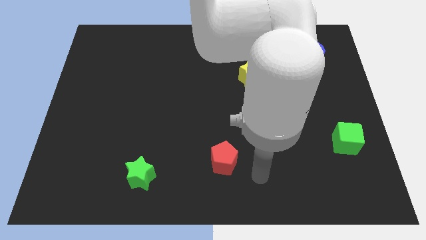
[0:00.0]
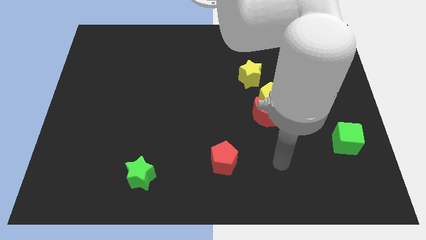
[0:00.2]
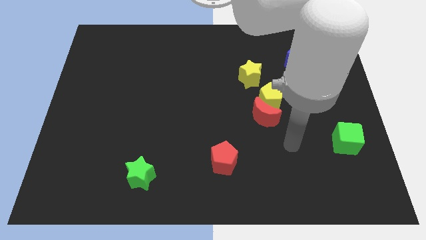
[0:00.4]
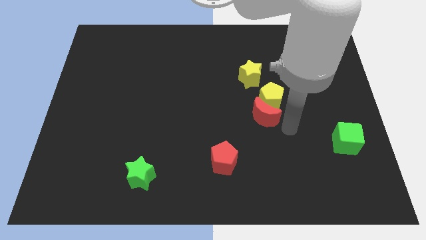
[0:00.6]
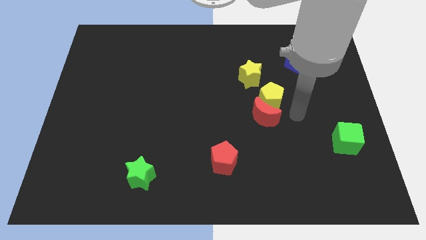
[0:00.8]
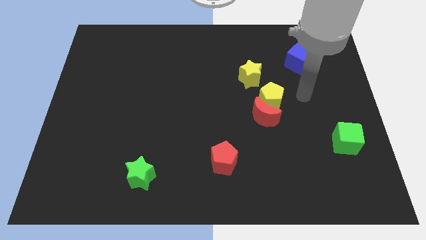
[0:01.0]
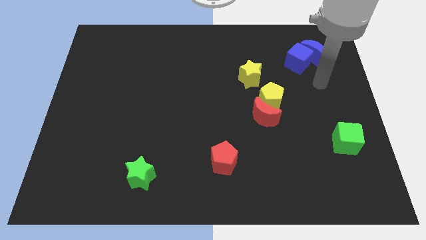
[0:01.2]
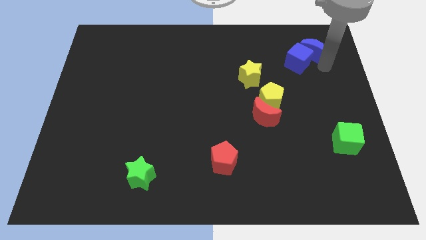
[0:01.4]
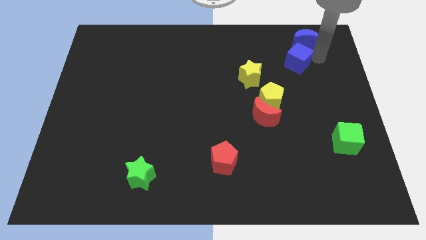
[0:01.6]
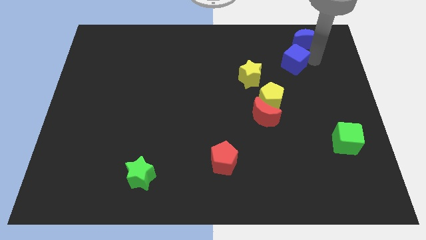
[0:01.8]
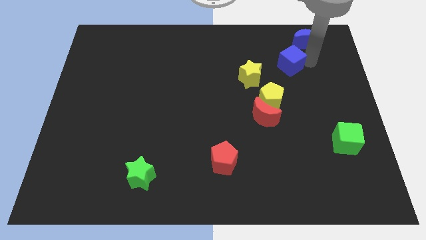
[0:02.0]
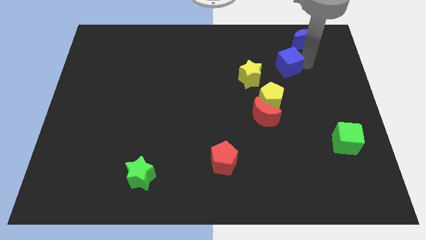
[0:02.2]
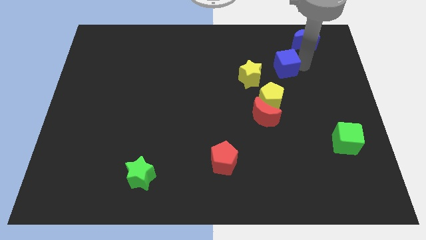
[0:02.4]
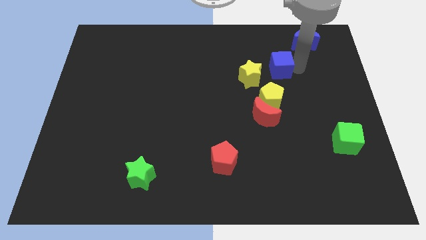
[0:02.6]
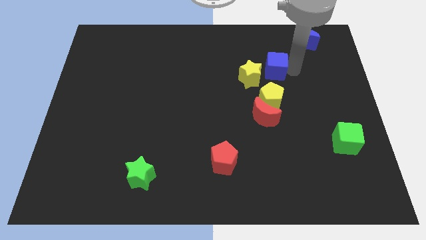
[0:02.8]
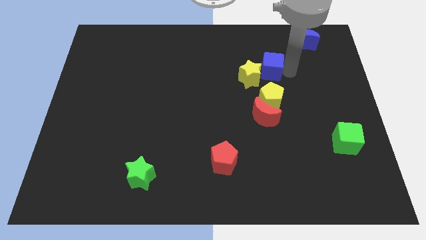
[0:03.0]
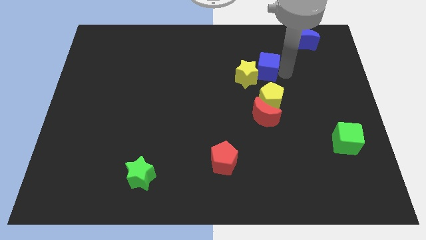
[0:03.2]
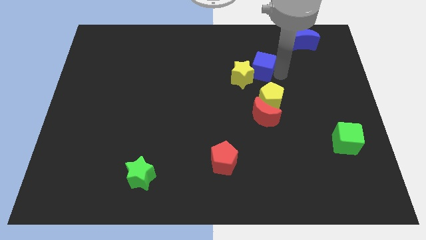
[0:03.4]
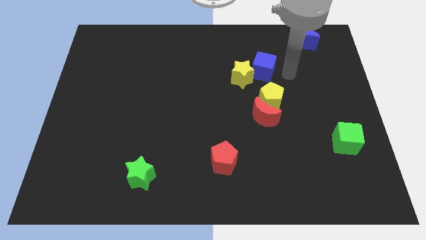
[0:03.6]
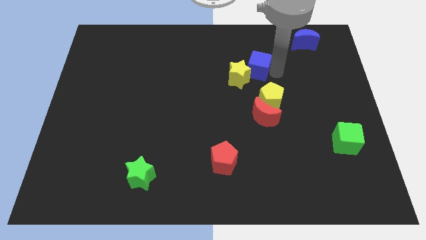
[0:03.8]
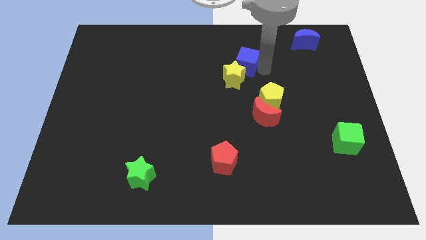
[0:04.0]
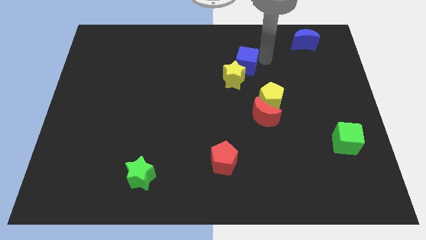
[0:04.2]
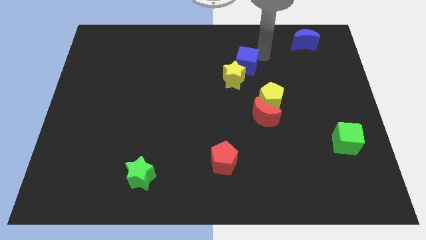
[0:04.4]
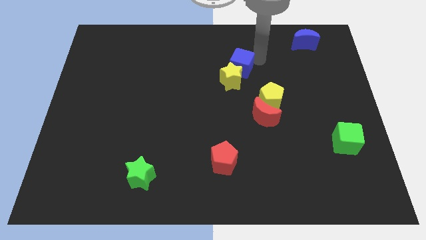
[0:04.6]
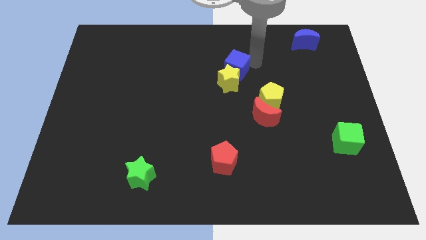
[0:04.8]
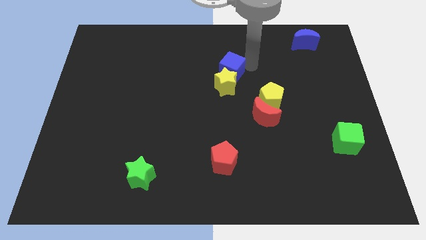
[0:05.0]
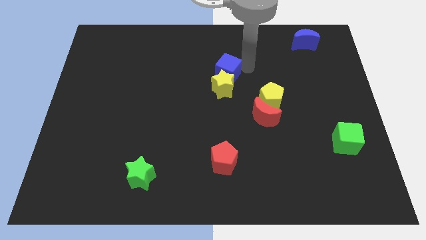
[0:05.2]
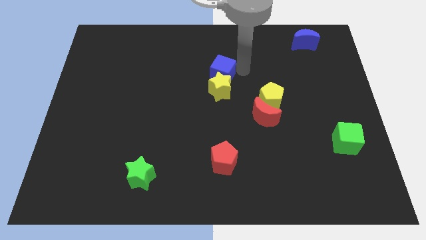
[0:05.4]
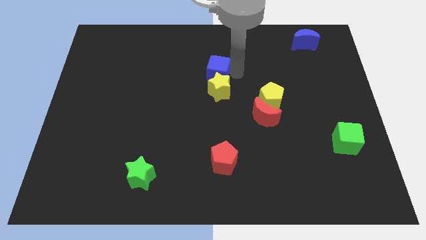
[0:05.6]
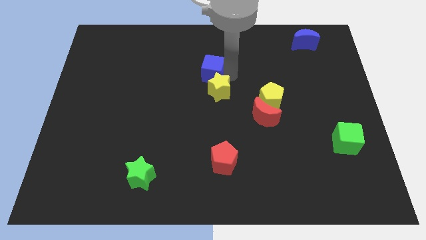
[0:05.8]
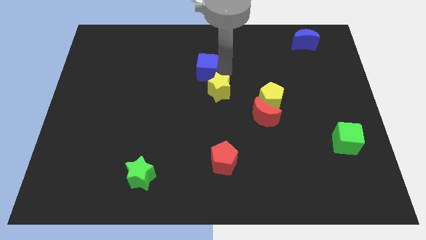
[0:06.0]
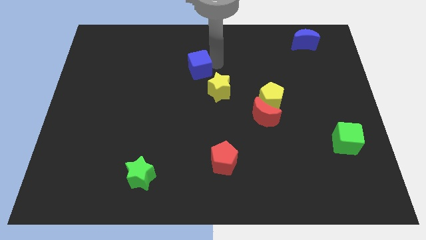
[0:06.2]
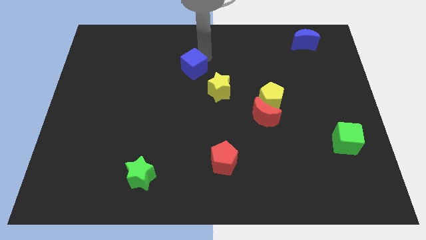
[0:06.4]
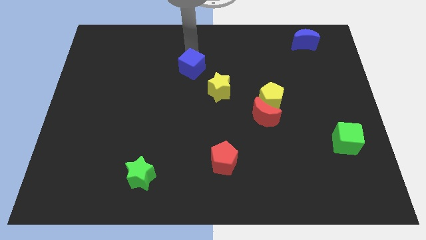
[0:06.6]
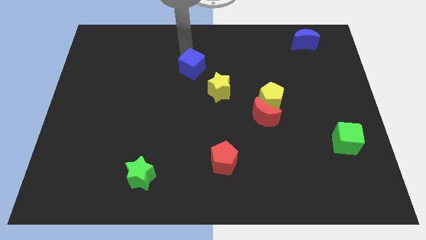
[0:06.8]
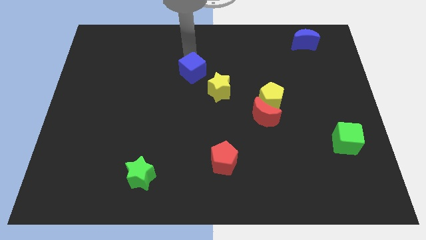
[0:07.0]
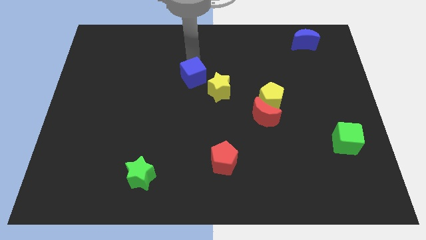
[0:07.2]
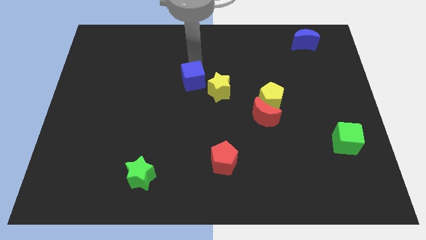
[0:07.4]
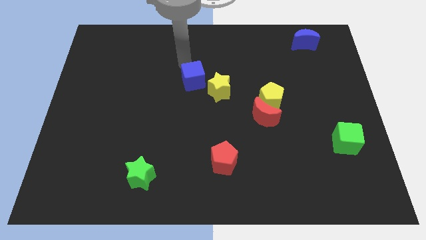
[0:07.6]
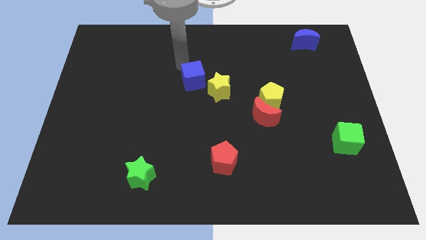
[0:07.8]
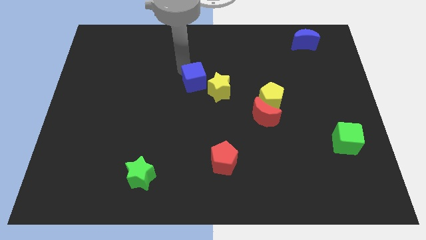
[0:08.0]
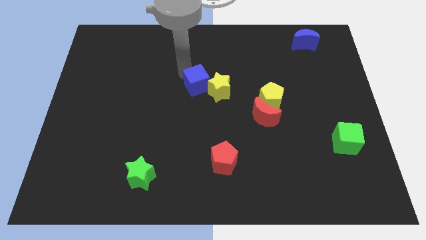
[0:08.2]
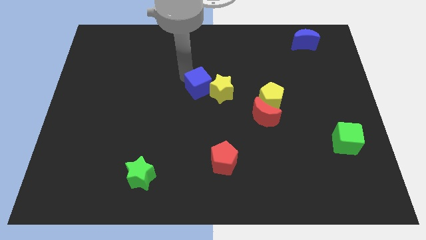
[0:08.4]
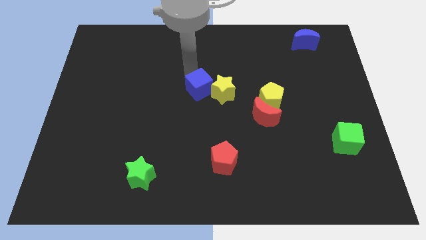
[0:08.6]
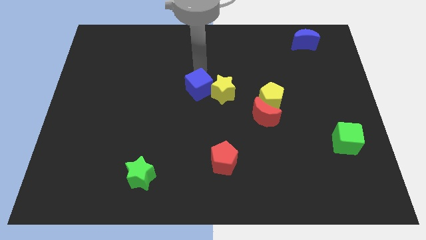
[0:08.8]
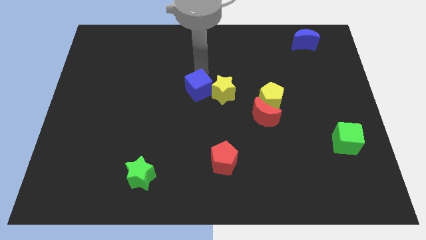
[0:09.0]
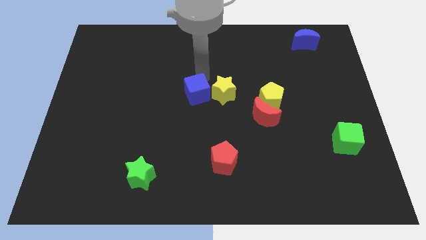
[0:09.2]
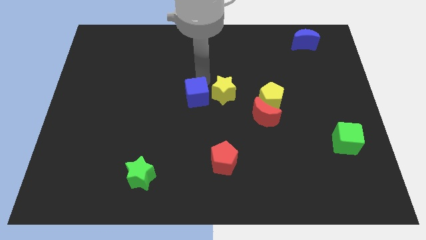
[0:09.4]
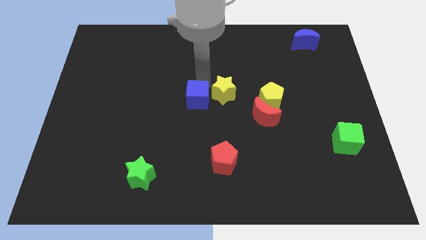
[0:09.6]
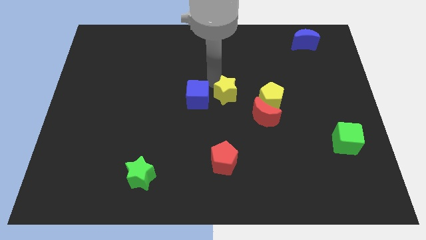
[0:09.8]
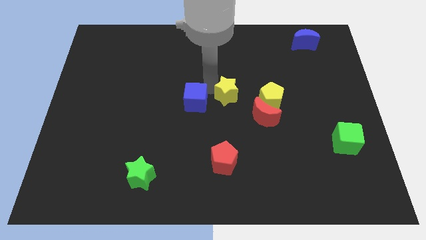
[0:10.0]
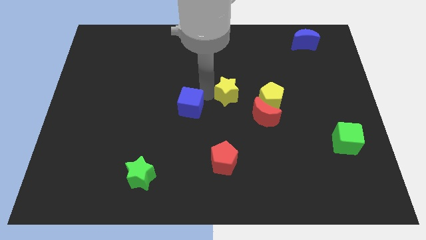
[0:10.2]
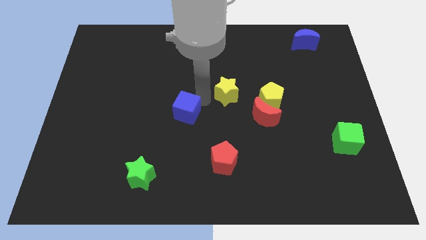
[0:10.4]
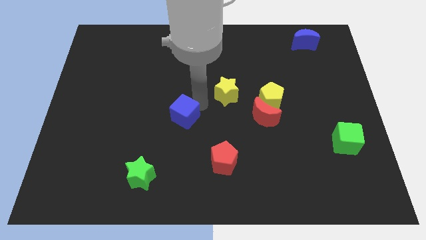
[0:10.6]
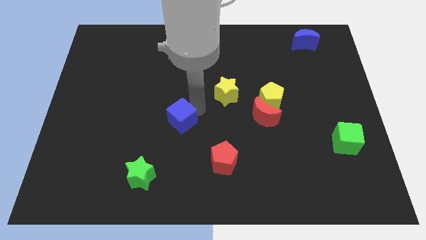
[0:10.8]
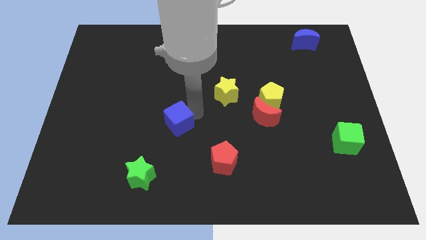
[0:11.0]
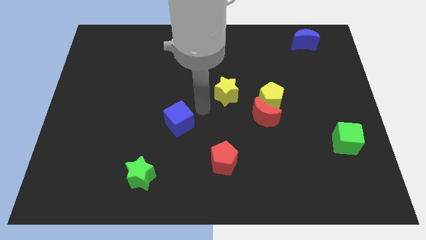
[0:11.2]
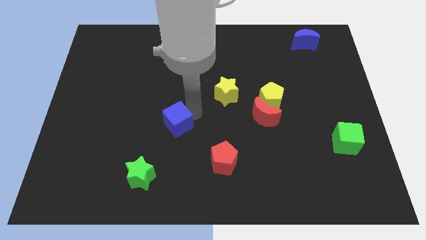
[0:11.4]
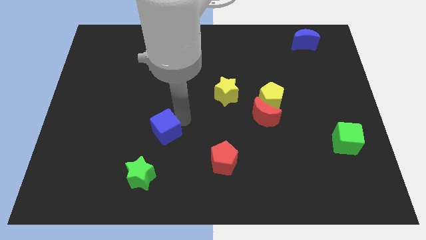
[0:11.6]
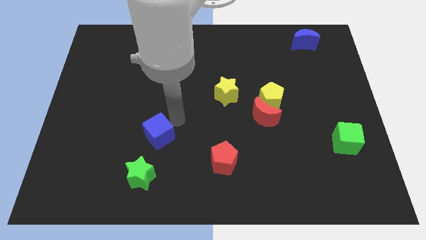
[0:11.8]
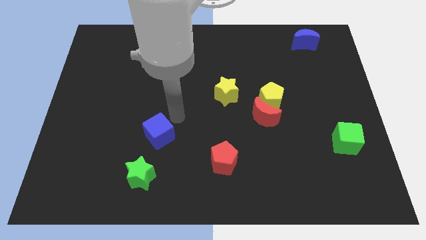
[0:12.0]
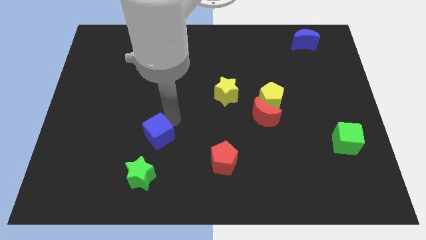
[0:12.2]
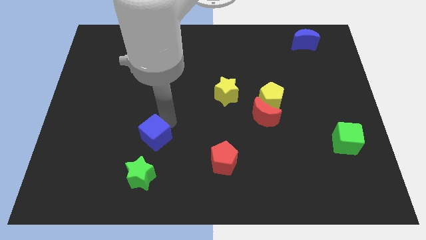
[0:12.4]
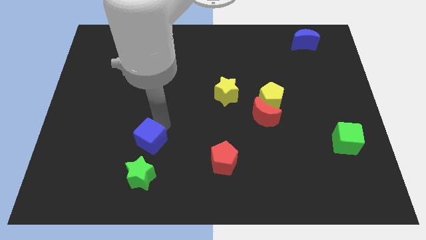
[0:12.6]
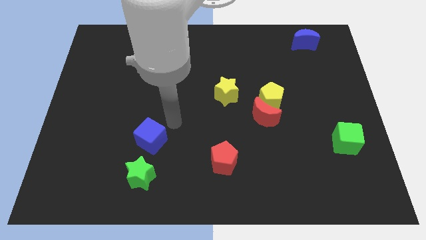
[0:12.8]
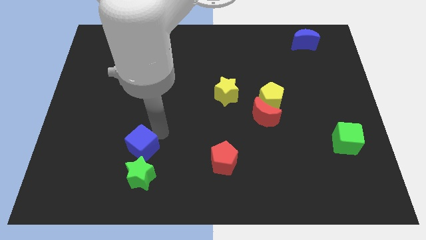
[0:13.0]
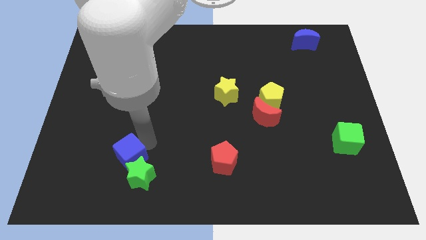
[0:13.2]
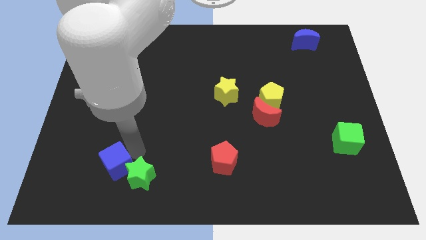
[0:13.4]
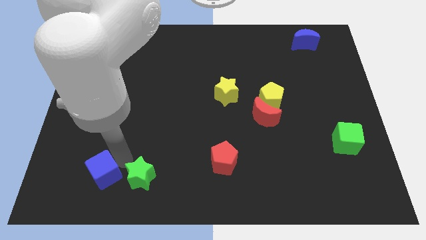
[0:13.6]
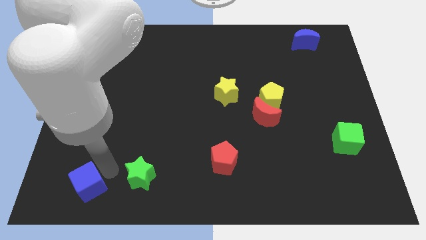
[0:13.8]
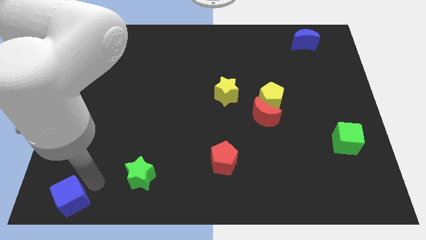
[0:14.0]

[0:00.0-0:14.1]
put the blue cube to the bottom left of the board
